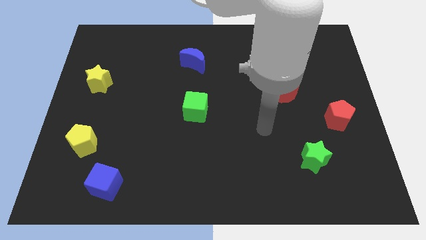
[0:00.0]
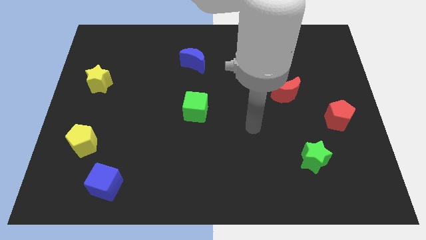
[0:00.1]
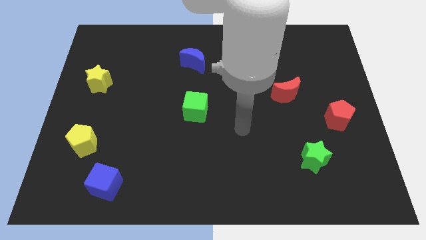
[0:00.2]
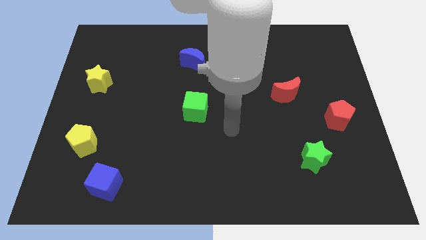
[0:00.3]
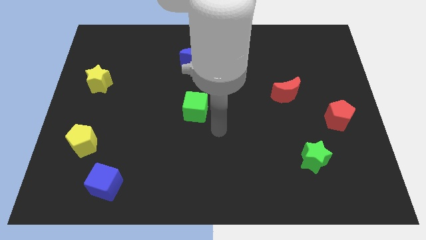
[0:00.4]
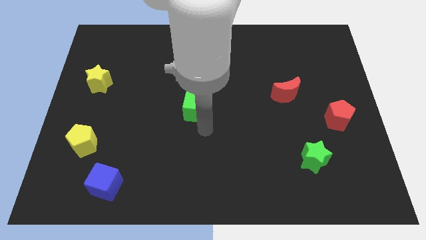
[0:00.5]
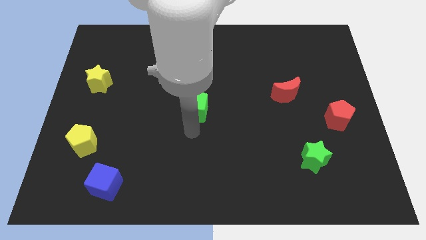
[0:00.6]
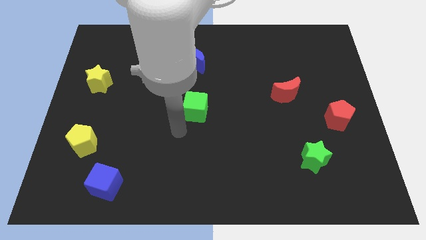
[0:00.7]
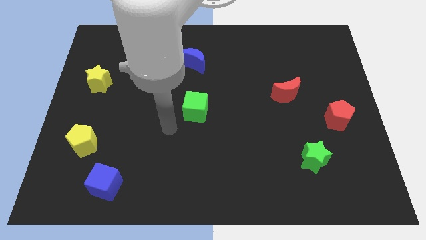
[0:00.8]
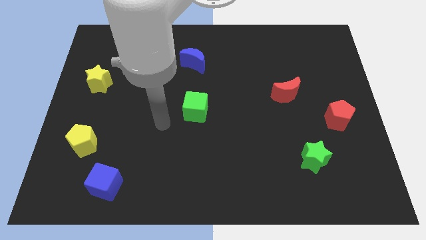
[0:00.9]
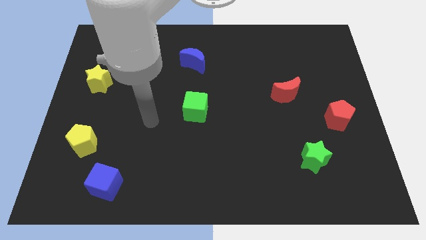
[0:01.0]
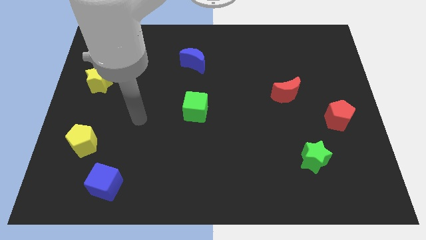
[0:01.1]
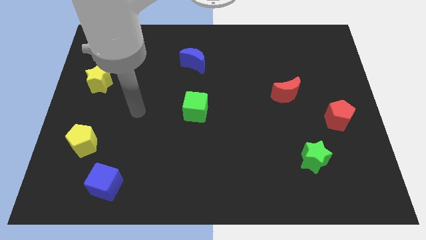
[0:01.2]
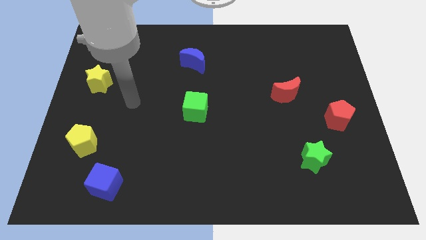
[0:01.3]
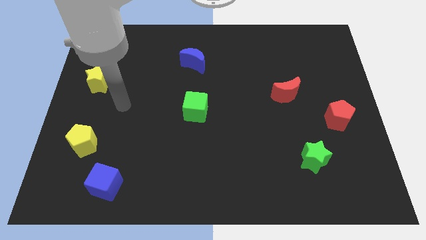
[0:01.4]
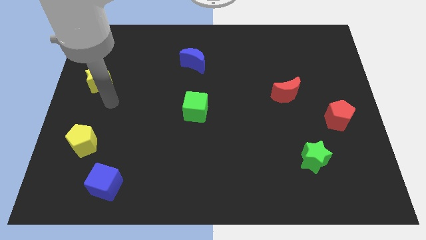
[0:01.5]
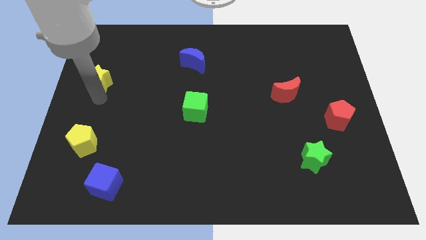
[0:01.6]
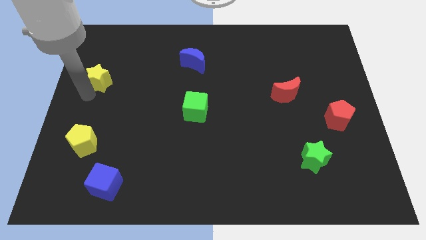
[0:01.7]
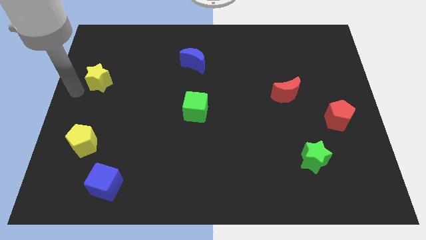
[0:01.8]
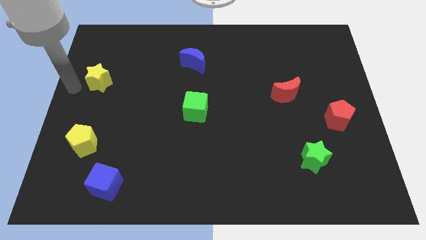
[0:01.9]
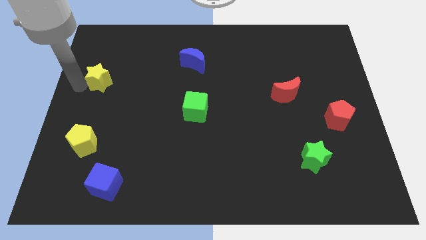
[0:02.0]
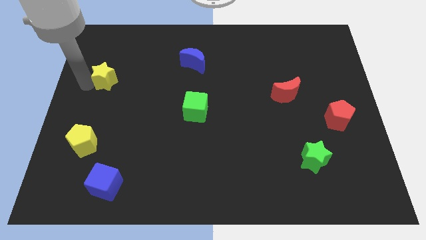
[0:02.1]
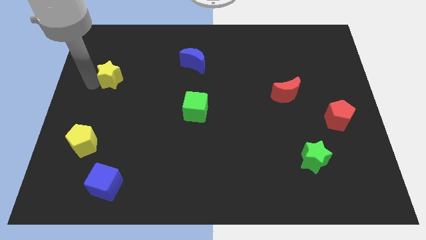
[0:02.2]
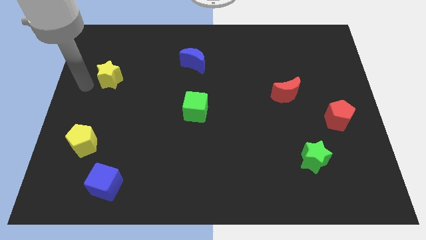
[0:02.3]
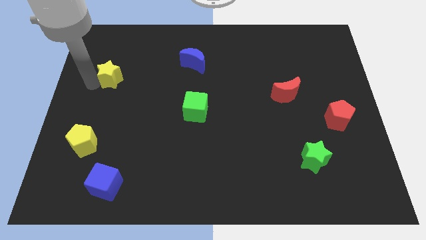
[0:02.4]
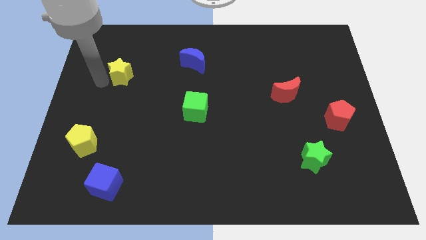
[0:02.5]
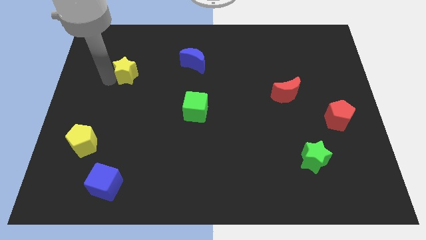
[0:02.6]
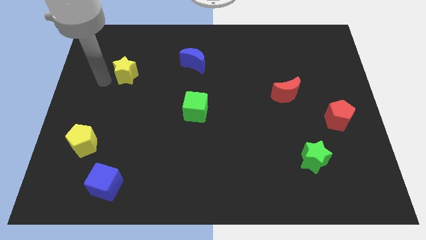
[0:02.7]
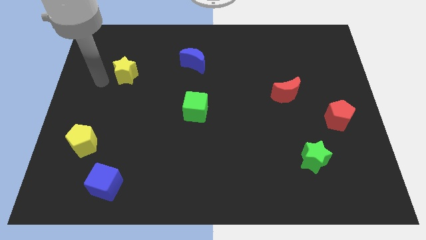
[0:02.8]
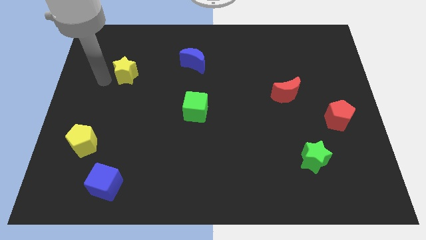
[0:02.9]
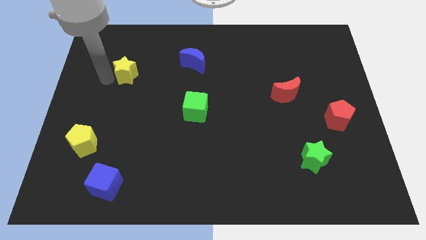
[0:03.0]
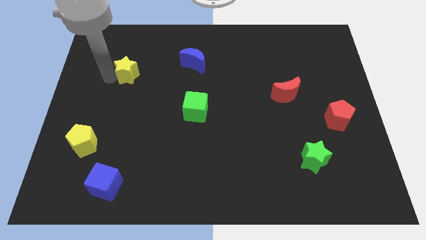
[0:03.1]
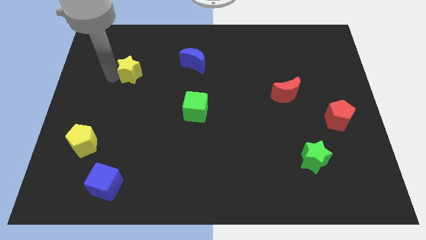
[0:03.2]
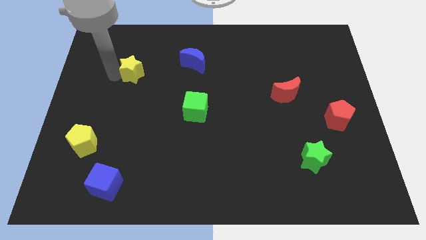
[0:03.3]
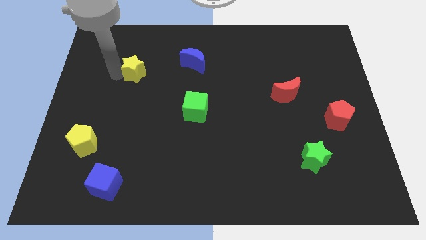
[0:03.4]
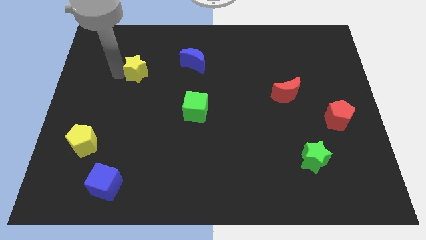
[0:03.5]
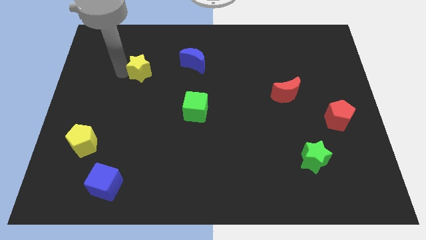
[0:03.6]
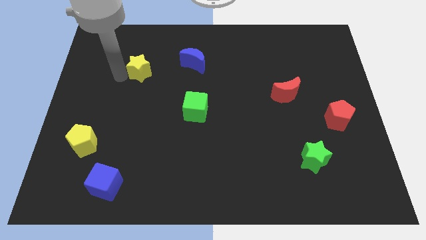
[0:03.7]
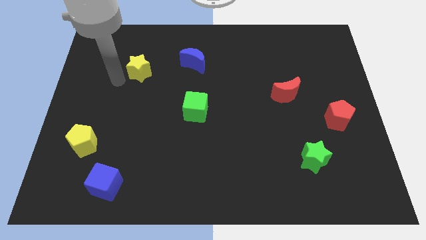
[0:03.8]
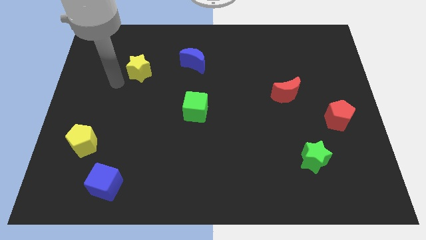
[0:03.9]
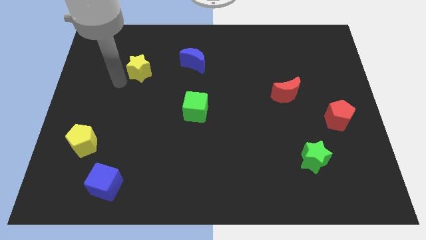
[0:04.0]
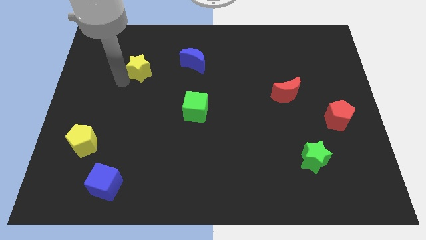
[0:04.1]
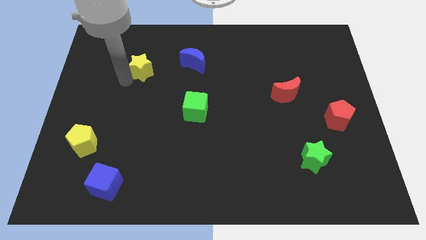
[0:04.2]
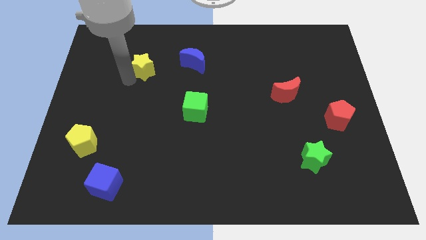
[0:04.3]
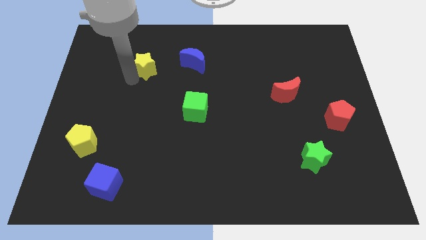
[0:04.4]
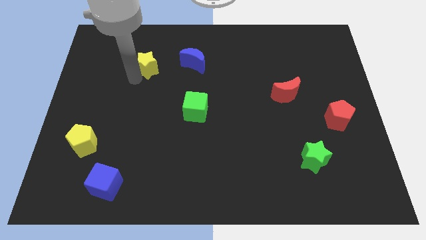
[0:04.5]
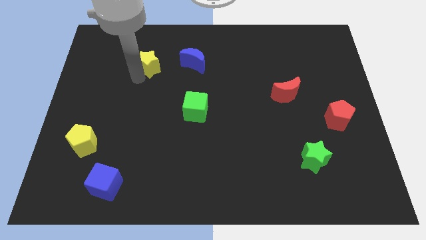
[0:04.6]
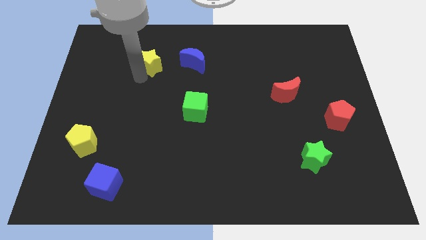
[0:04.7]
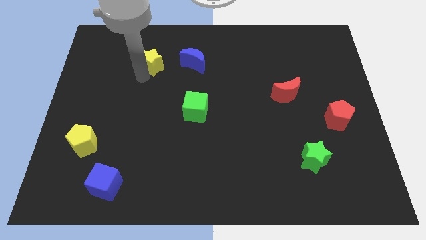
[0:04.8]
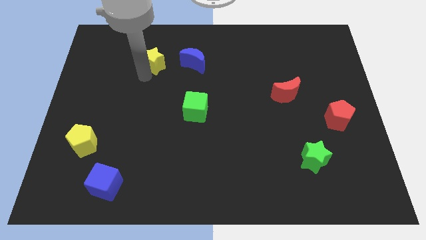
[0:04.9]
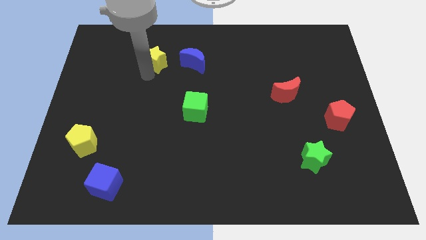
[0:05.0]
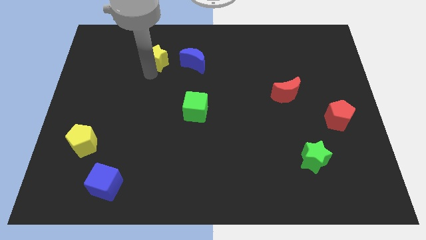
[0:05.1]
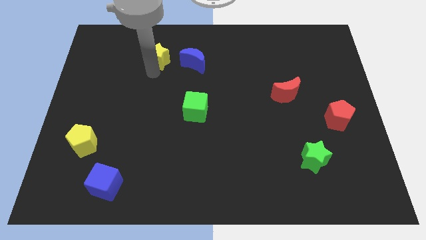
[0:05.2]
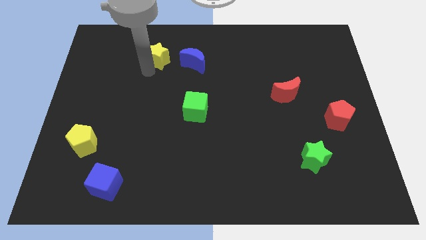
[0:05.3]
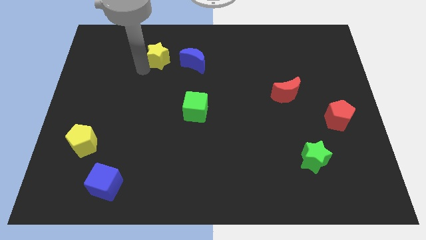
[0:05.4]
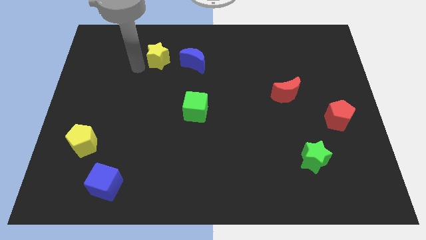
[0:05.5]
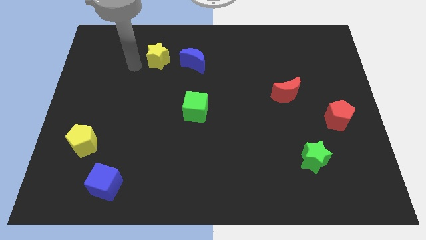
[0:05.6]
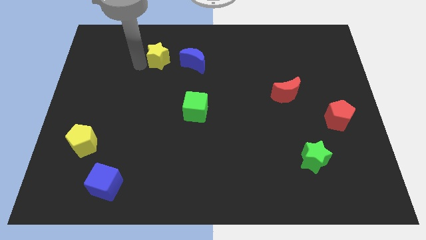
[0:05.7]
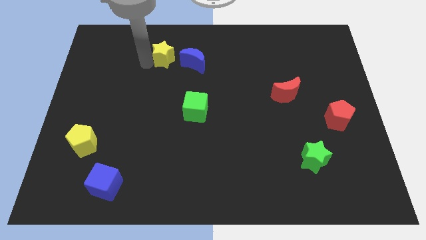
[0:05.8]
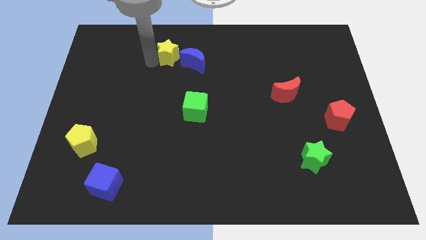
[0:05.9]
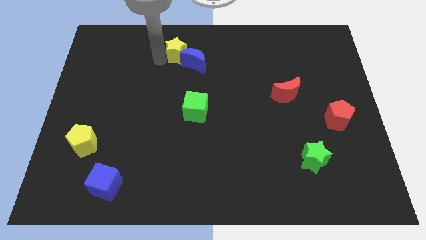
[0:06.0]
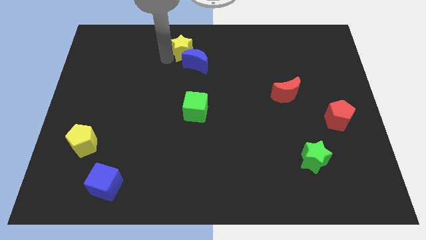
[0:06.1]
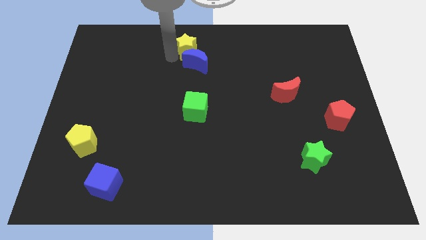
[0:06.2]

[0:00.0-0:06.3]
put the yellow star to the towards your base

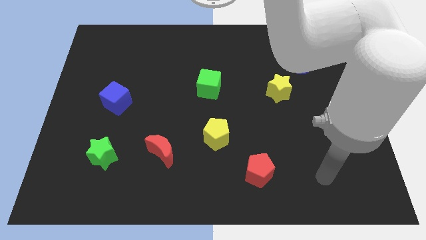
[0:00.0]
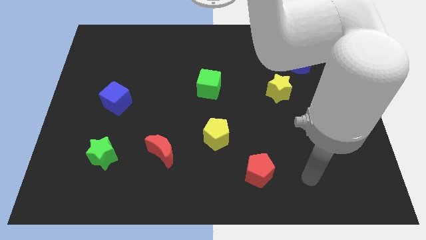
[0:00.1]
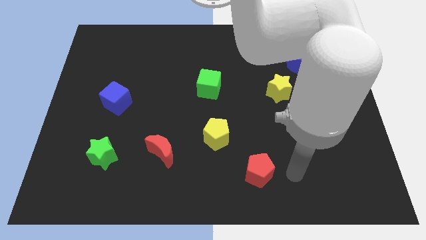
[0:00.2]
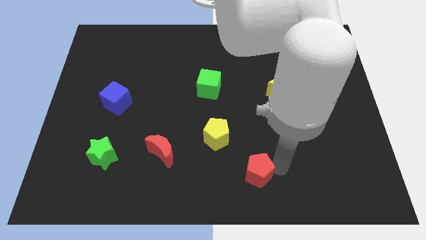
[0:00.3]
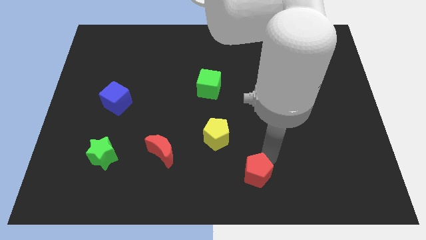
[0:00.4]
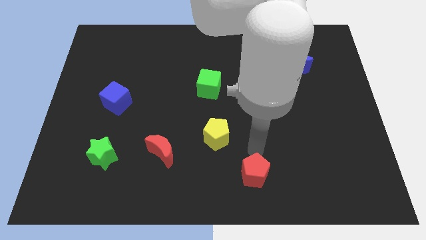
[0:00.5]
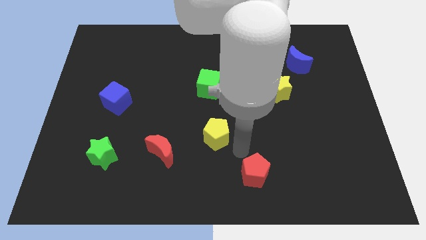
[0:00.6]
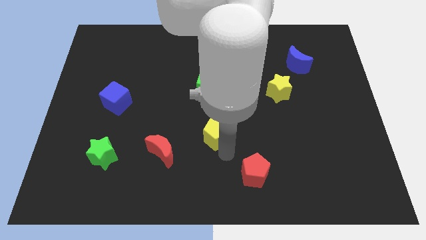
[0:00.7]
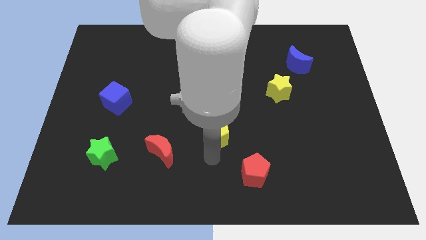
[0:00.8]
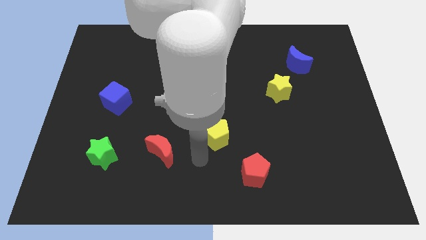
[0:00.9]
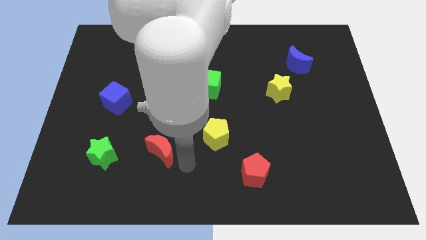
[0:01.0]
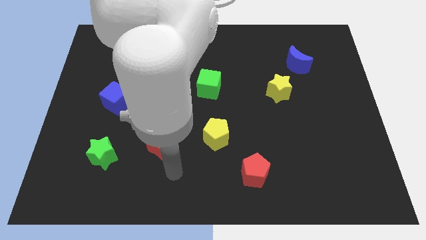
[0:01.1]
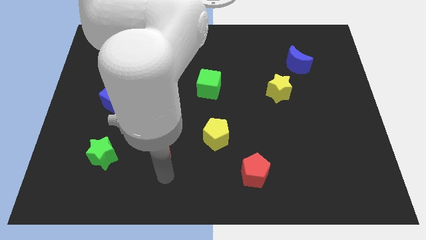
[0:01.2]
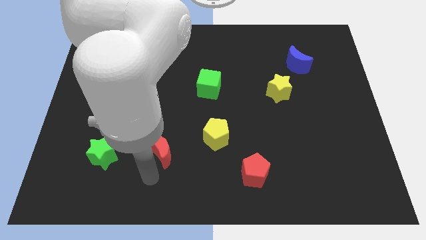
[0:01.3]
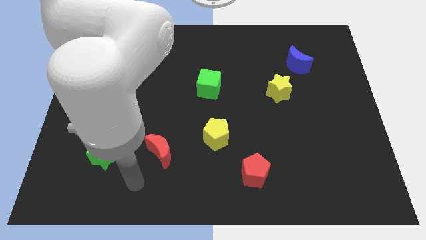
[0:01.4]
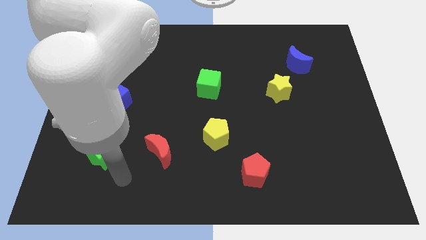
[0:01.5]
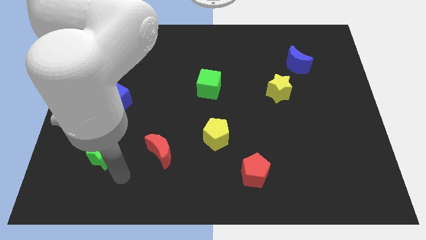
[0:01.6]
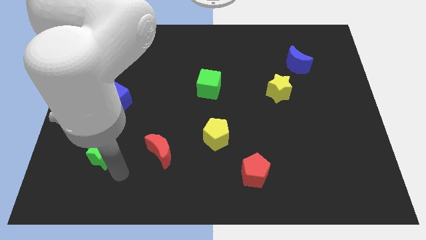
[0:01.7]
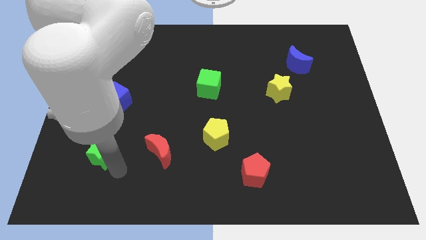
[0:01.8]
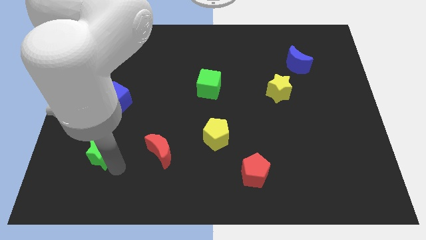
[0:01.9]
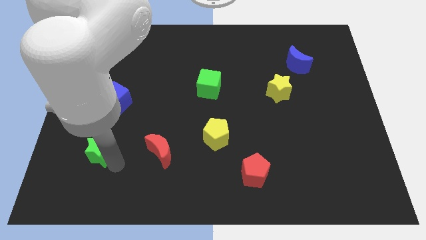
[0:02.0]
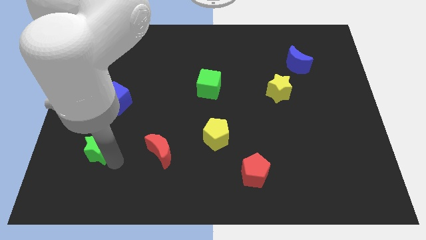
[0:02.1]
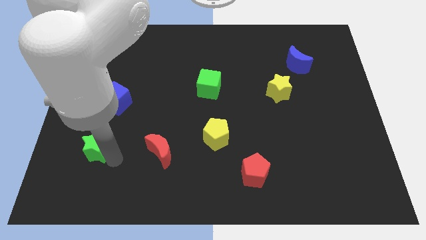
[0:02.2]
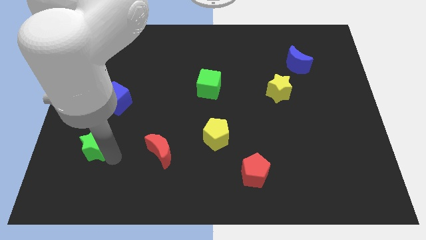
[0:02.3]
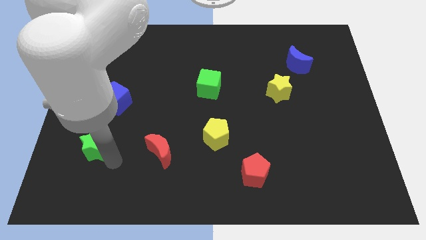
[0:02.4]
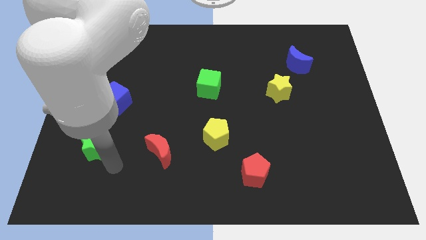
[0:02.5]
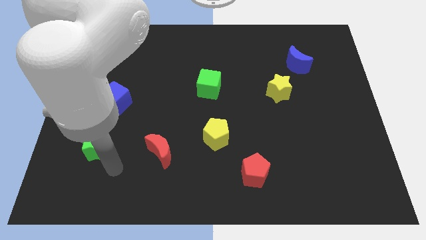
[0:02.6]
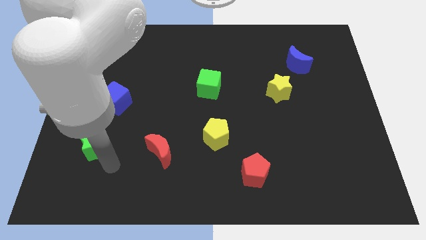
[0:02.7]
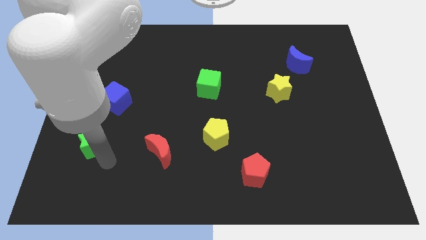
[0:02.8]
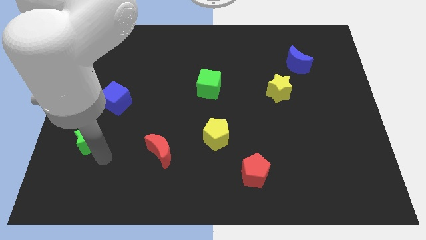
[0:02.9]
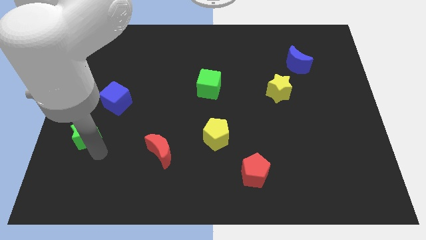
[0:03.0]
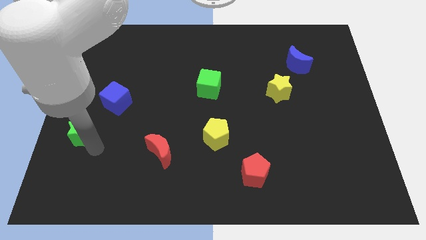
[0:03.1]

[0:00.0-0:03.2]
put the green star to the left side of the board
